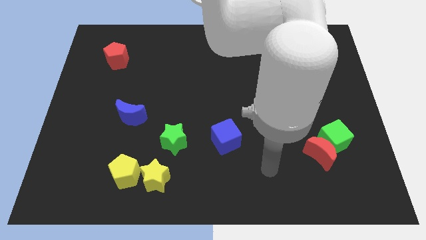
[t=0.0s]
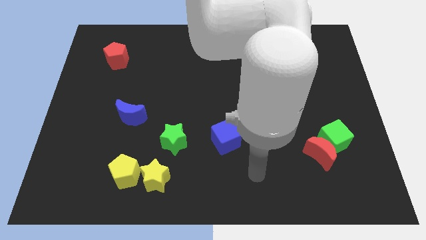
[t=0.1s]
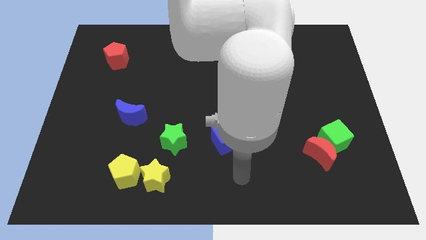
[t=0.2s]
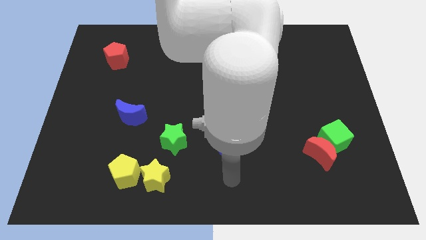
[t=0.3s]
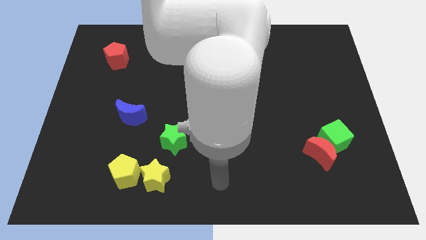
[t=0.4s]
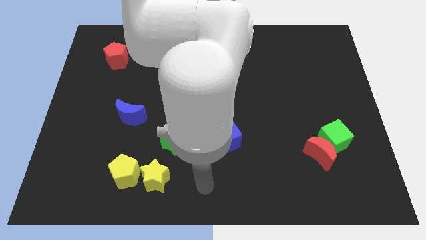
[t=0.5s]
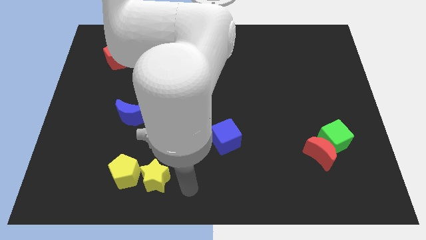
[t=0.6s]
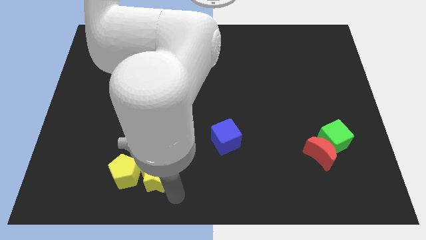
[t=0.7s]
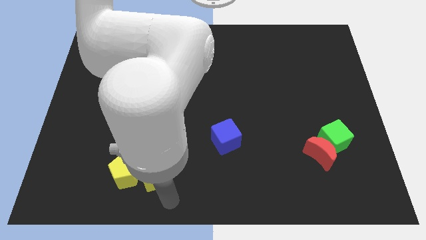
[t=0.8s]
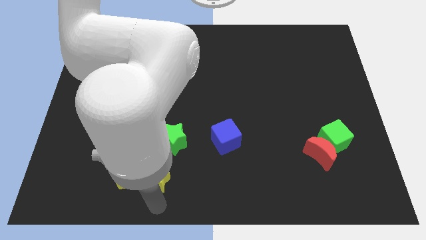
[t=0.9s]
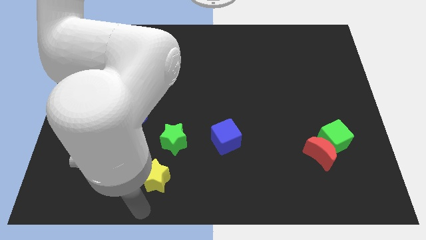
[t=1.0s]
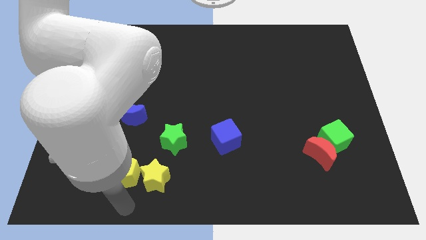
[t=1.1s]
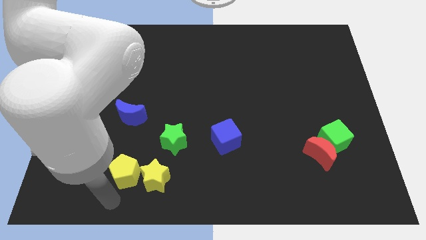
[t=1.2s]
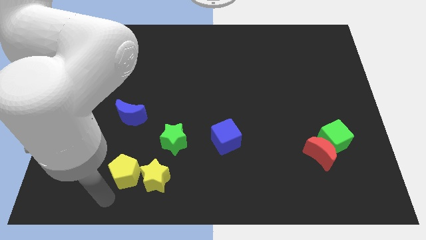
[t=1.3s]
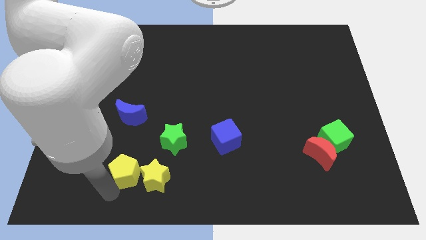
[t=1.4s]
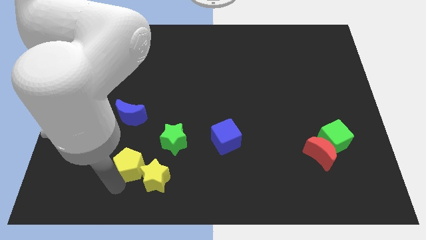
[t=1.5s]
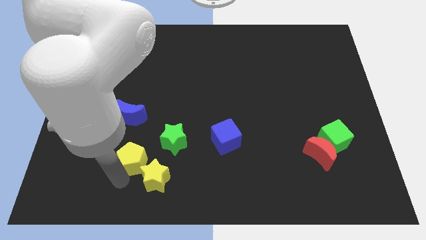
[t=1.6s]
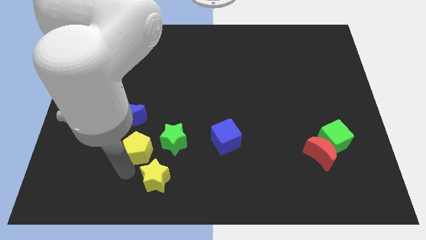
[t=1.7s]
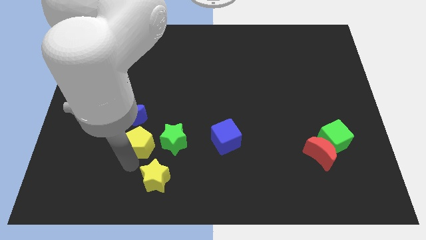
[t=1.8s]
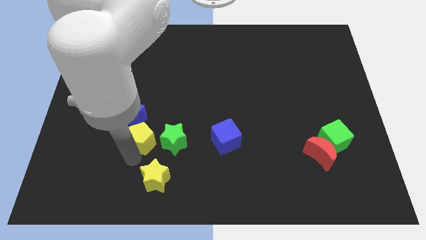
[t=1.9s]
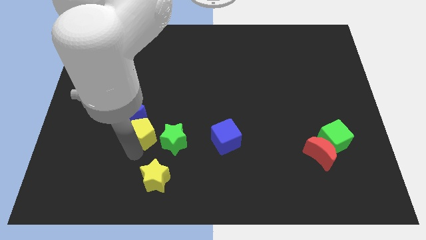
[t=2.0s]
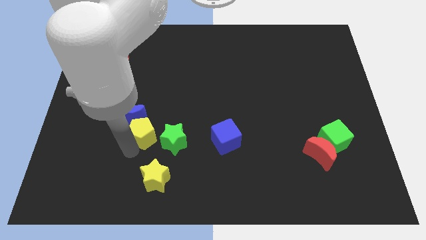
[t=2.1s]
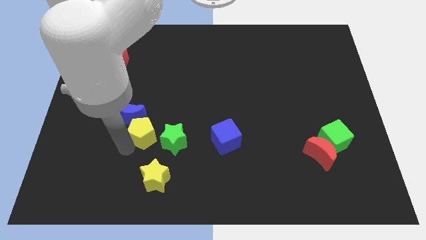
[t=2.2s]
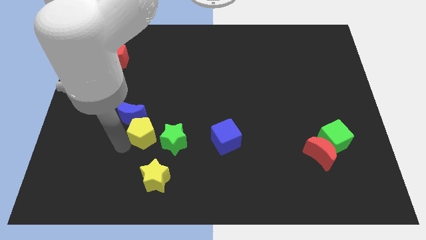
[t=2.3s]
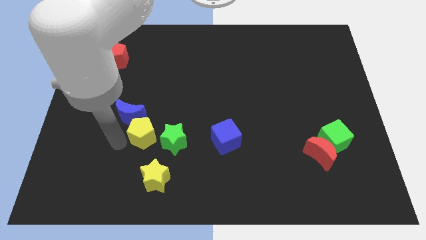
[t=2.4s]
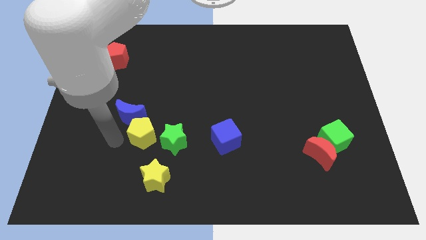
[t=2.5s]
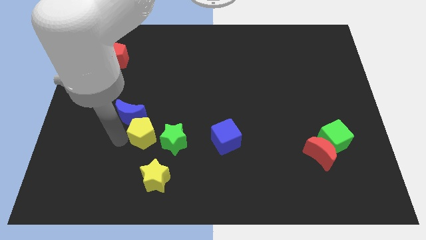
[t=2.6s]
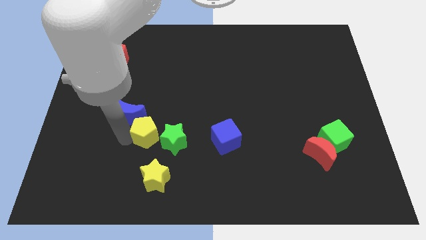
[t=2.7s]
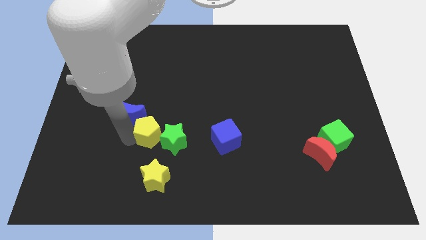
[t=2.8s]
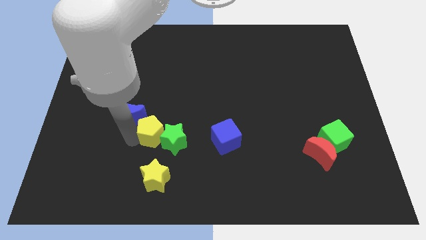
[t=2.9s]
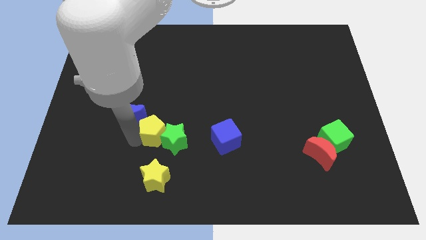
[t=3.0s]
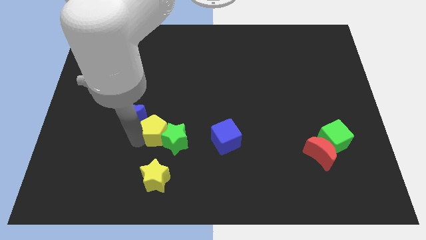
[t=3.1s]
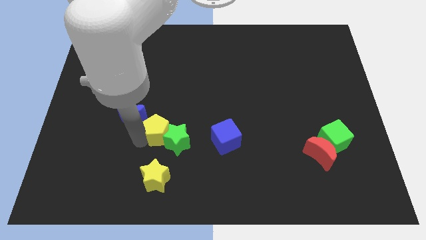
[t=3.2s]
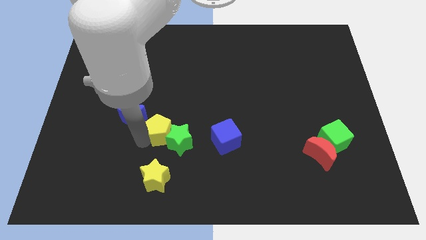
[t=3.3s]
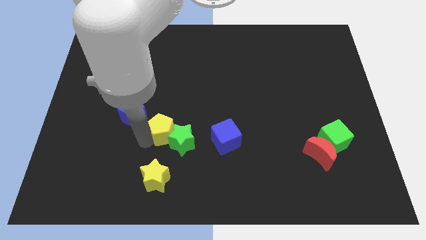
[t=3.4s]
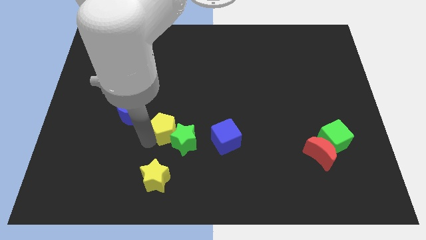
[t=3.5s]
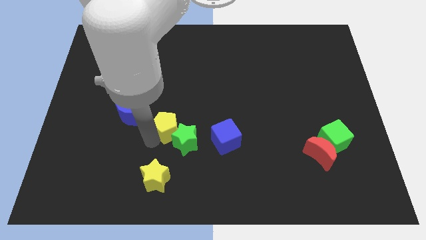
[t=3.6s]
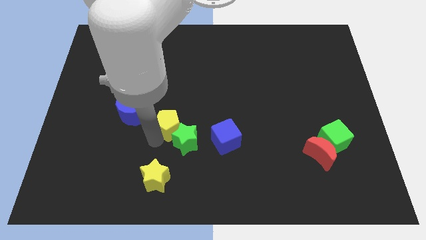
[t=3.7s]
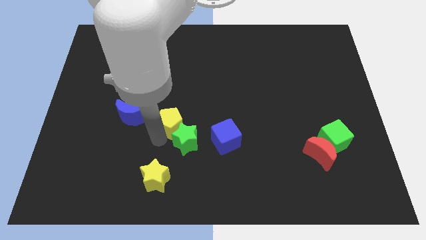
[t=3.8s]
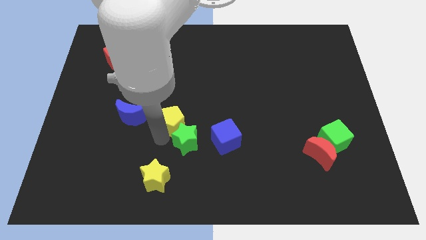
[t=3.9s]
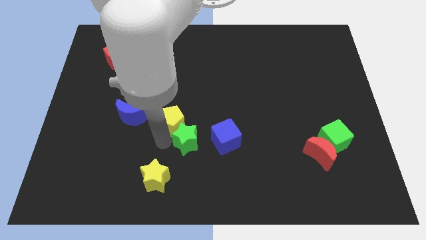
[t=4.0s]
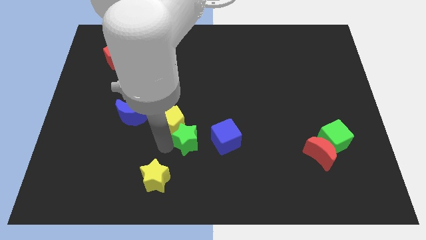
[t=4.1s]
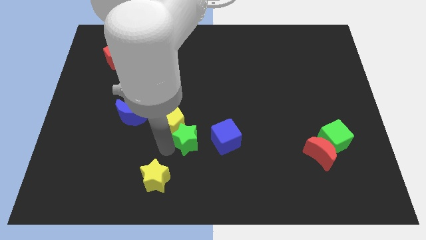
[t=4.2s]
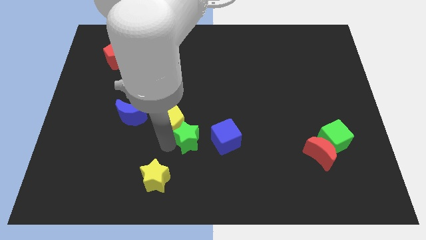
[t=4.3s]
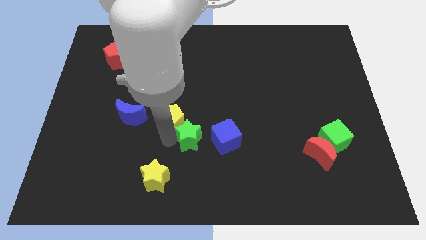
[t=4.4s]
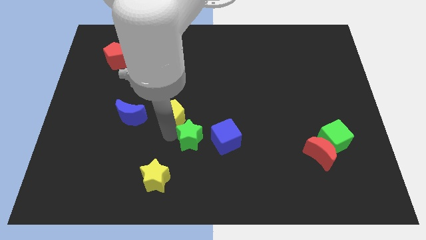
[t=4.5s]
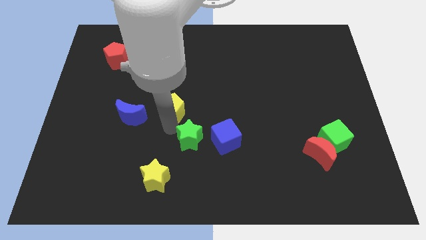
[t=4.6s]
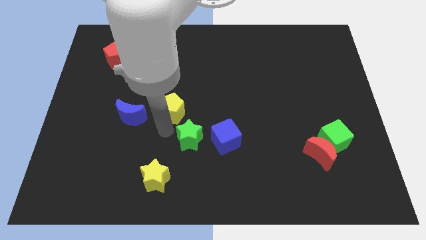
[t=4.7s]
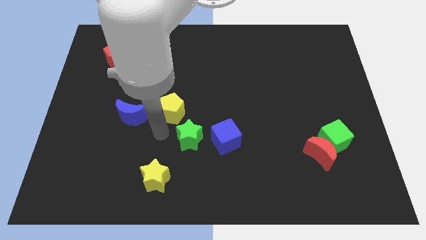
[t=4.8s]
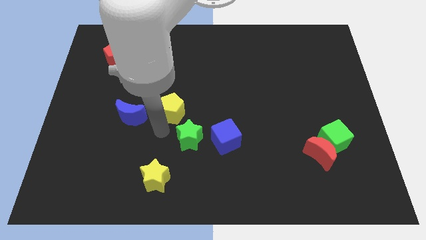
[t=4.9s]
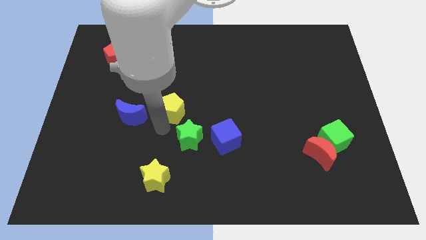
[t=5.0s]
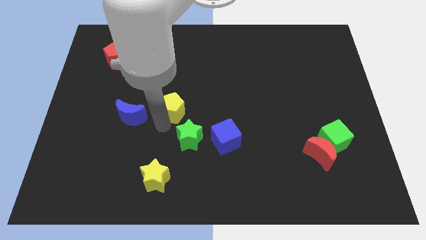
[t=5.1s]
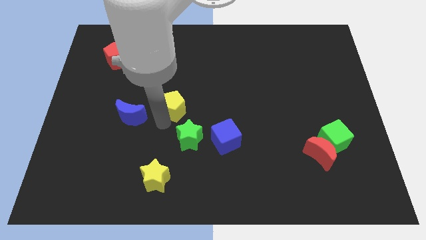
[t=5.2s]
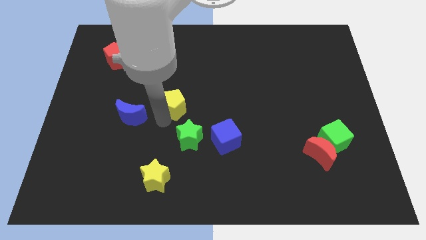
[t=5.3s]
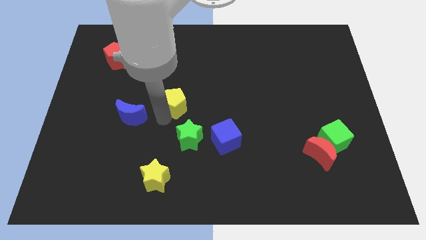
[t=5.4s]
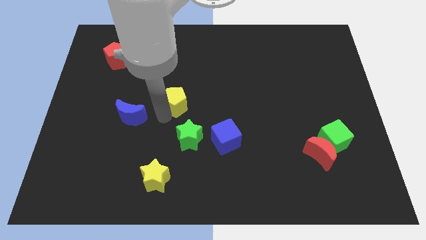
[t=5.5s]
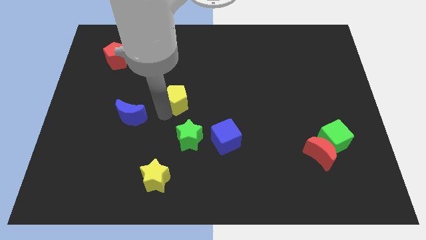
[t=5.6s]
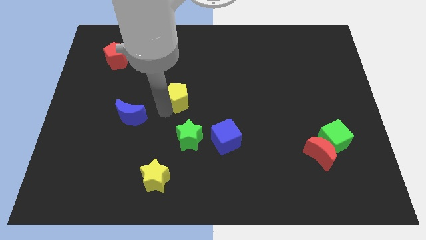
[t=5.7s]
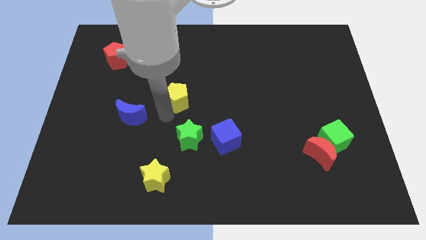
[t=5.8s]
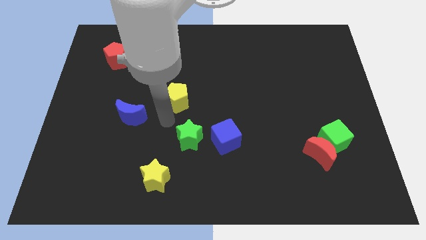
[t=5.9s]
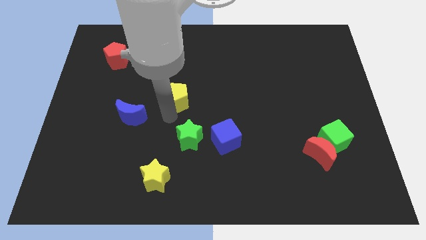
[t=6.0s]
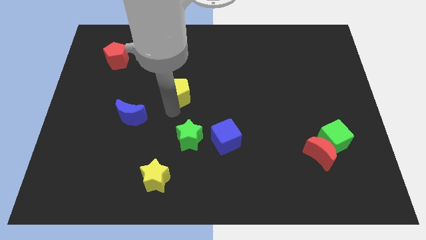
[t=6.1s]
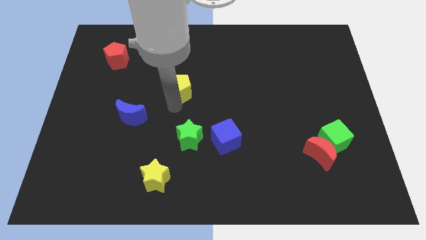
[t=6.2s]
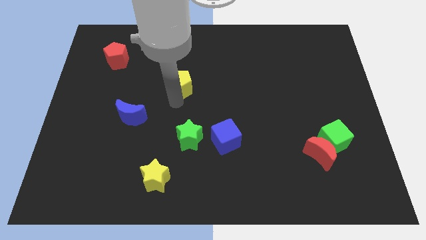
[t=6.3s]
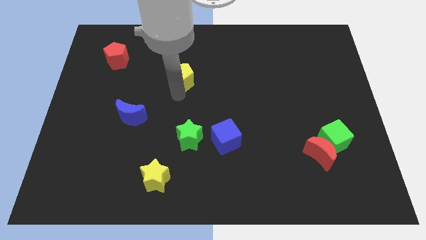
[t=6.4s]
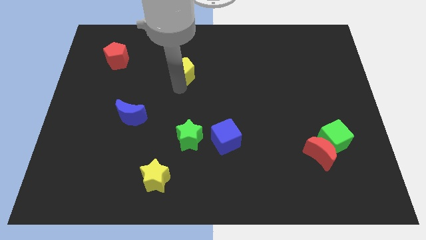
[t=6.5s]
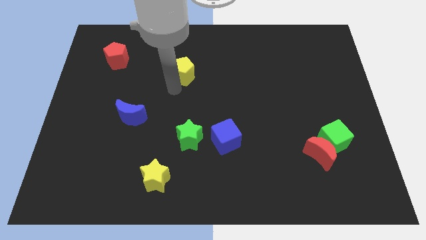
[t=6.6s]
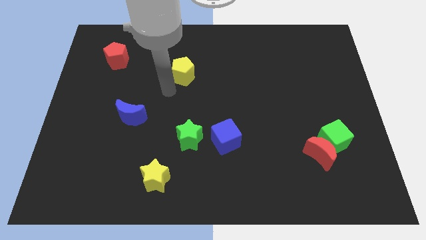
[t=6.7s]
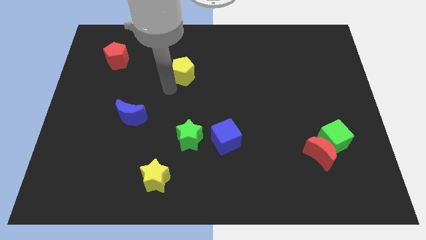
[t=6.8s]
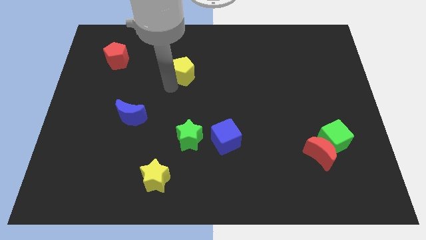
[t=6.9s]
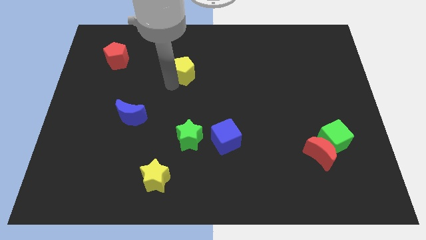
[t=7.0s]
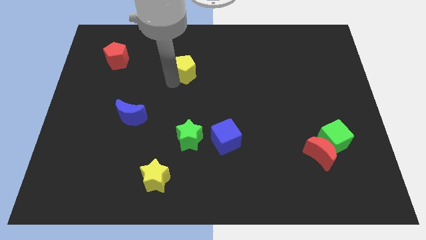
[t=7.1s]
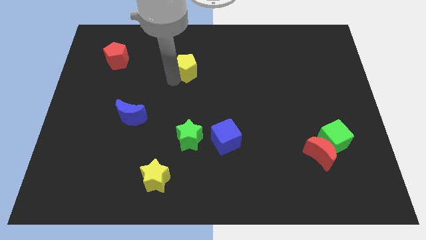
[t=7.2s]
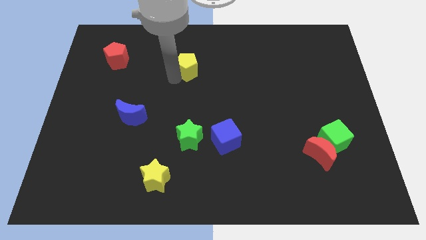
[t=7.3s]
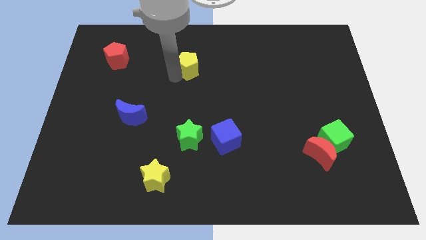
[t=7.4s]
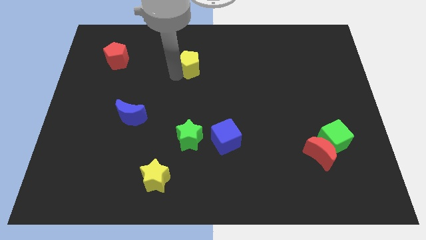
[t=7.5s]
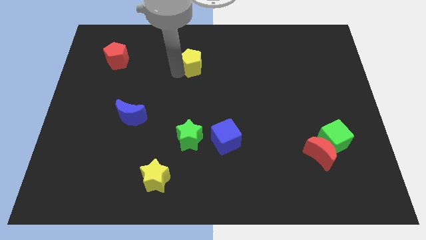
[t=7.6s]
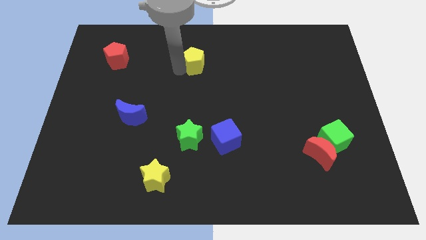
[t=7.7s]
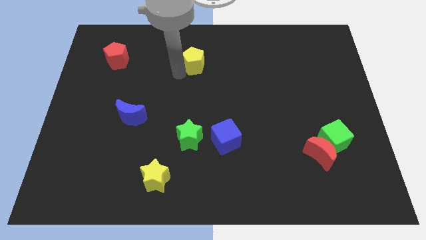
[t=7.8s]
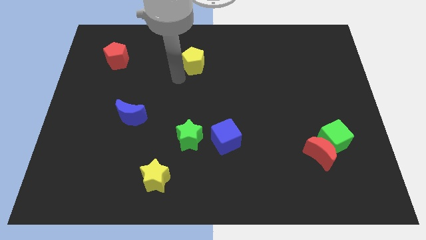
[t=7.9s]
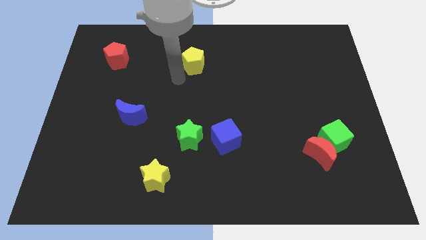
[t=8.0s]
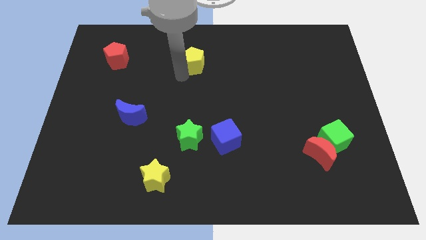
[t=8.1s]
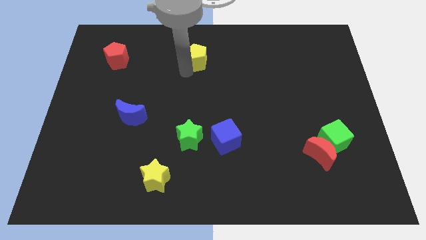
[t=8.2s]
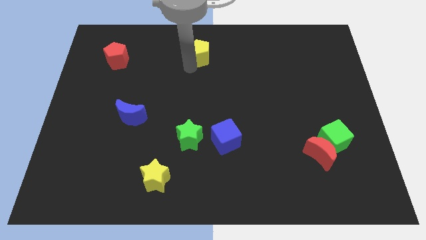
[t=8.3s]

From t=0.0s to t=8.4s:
put the yellow pentagon to the top side
